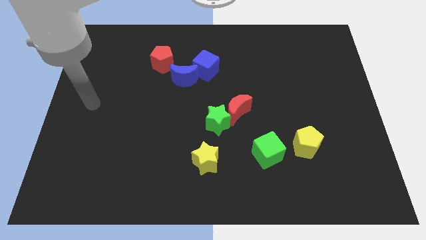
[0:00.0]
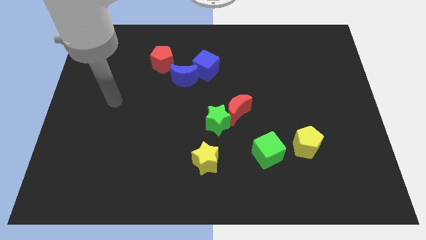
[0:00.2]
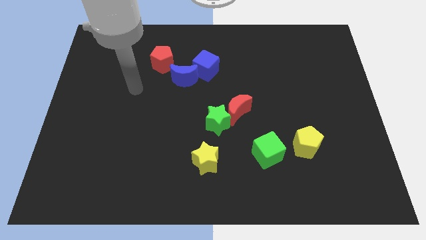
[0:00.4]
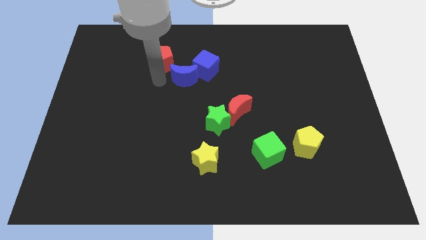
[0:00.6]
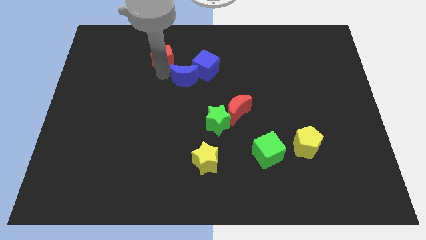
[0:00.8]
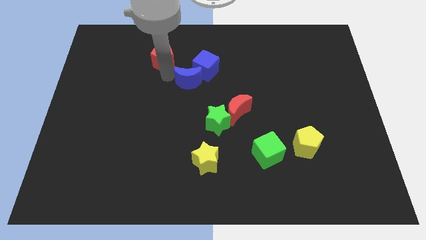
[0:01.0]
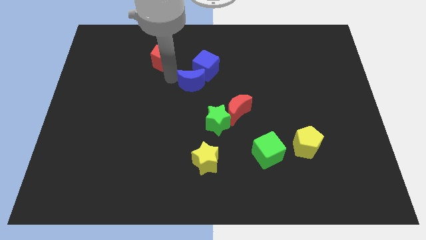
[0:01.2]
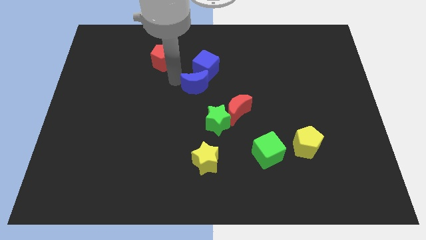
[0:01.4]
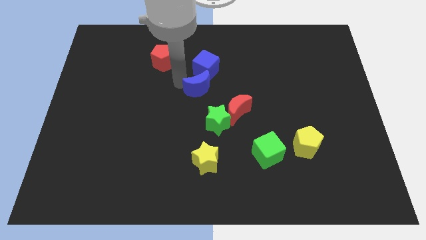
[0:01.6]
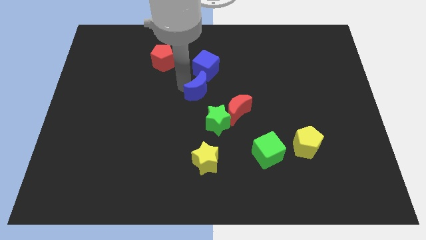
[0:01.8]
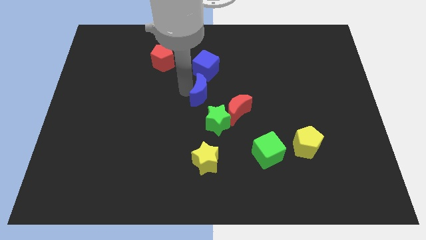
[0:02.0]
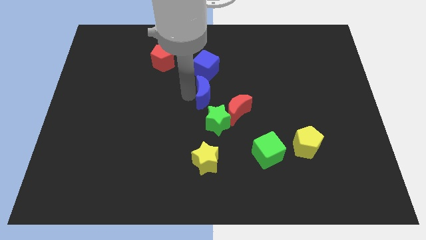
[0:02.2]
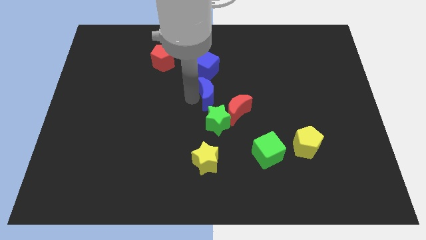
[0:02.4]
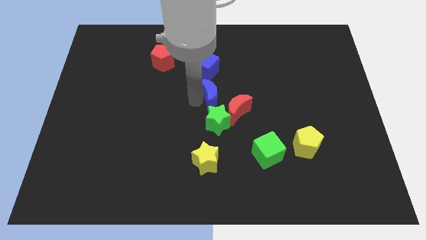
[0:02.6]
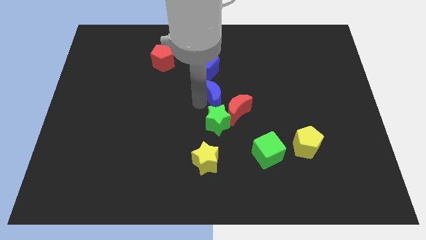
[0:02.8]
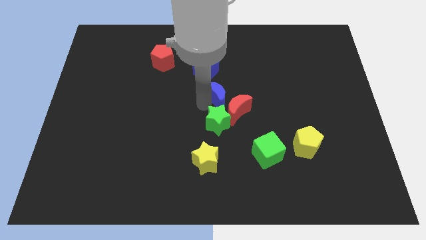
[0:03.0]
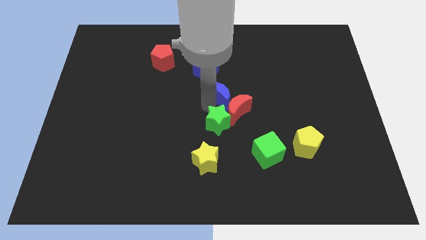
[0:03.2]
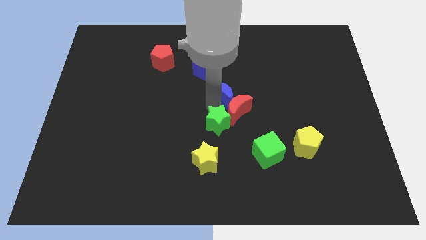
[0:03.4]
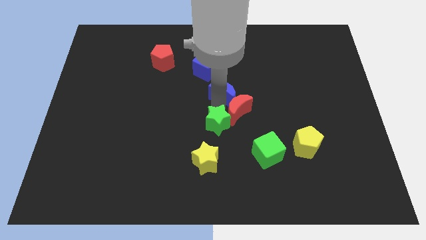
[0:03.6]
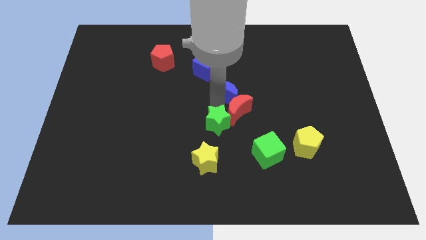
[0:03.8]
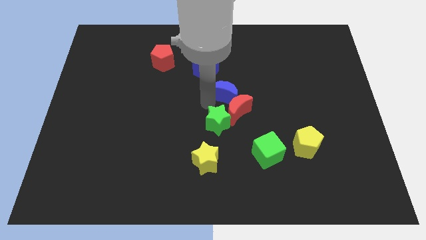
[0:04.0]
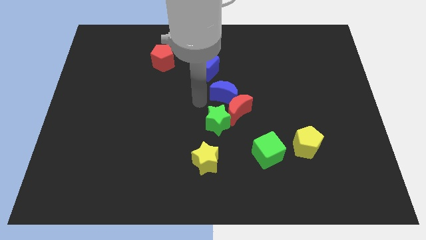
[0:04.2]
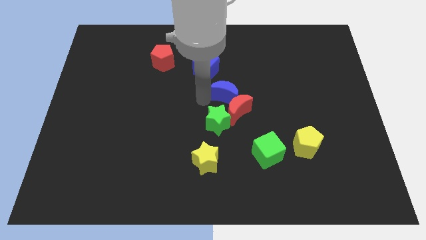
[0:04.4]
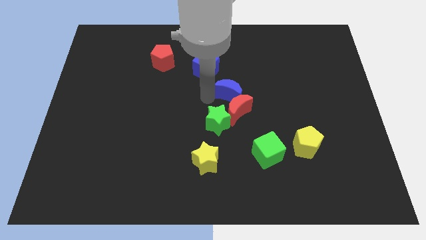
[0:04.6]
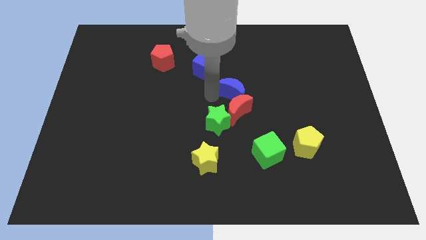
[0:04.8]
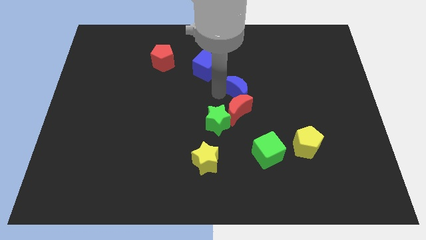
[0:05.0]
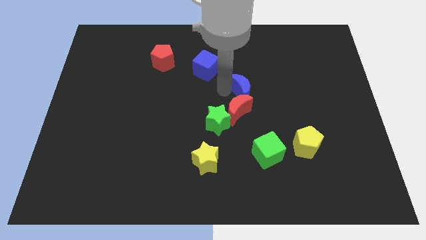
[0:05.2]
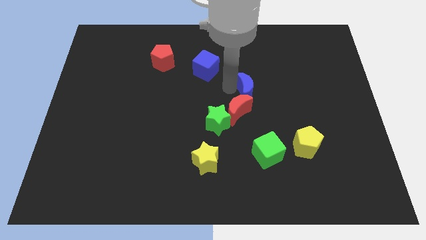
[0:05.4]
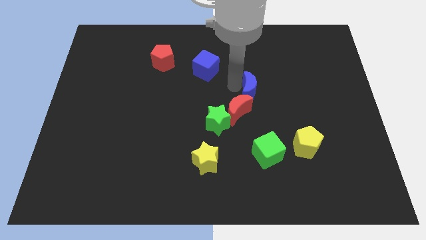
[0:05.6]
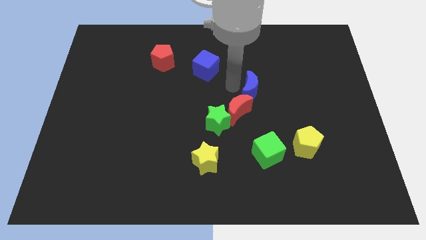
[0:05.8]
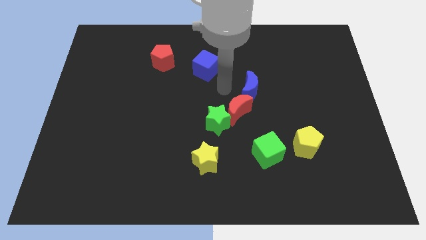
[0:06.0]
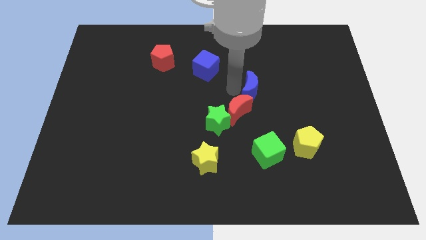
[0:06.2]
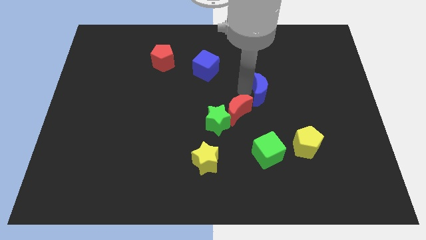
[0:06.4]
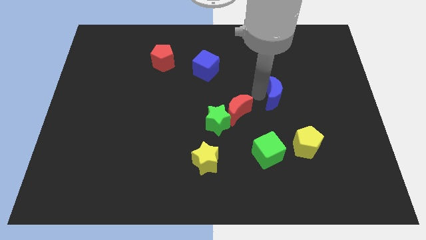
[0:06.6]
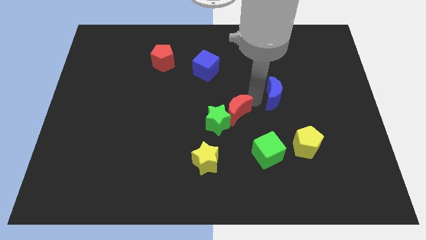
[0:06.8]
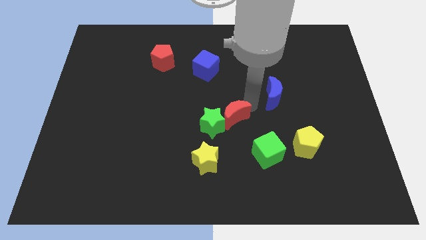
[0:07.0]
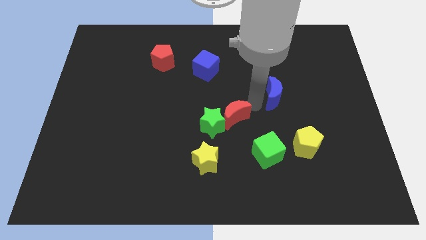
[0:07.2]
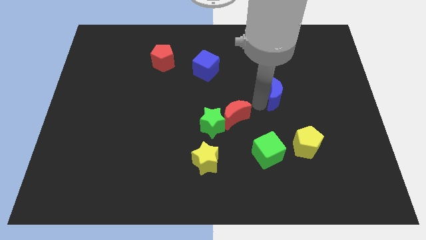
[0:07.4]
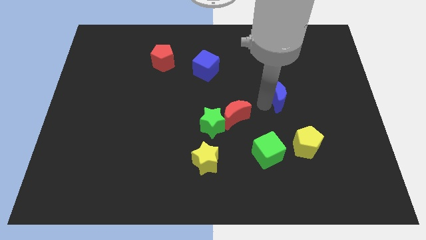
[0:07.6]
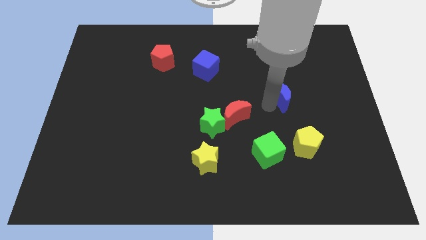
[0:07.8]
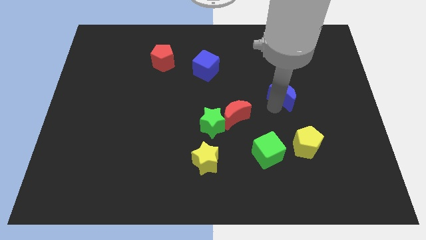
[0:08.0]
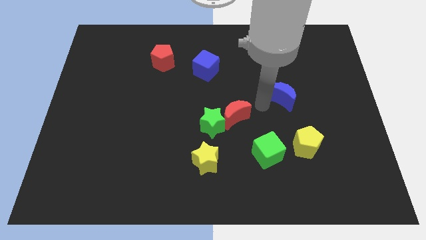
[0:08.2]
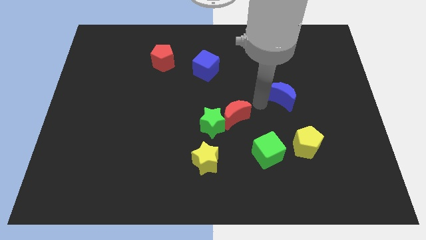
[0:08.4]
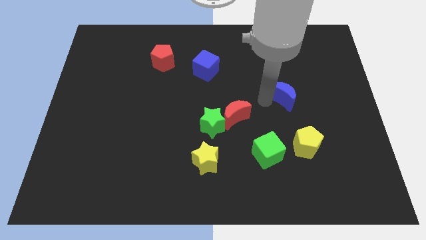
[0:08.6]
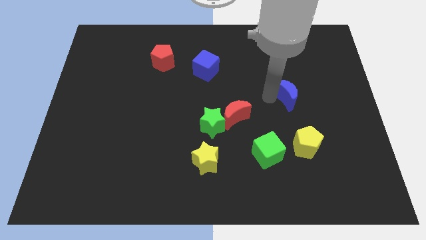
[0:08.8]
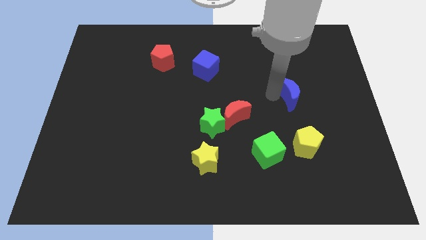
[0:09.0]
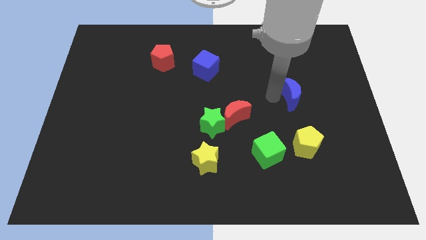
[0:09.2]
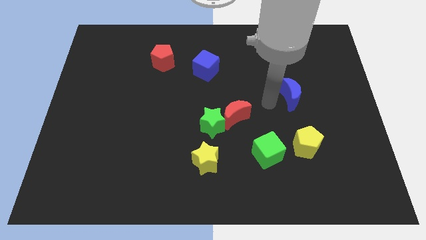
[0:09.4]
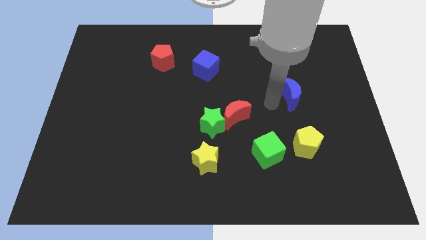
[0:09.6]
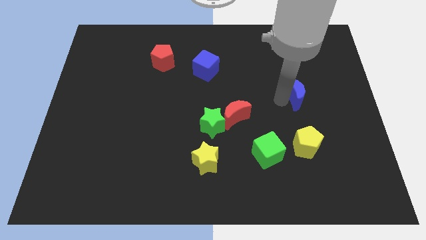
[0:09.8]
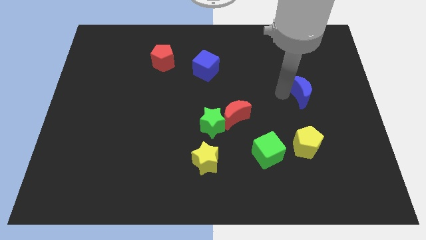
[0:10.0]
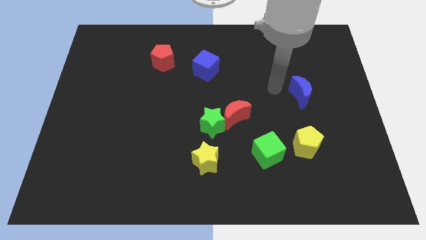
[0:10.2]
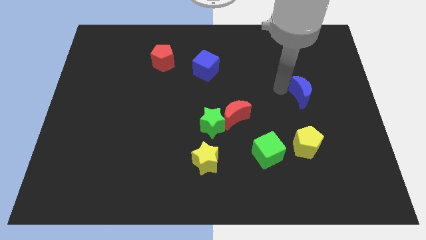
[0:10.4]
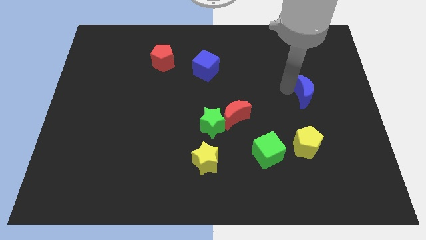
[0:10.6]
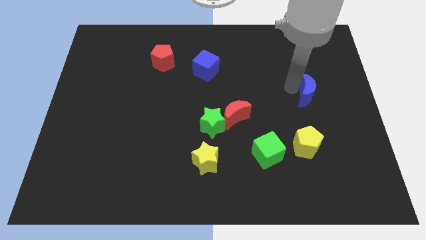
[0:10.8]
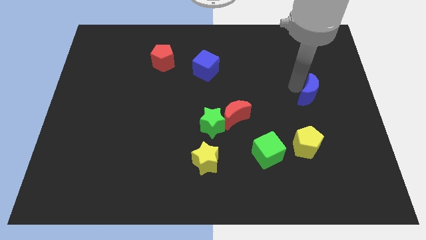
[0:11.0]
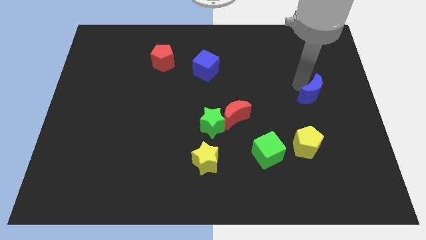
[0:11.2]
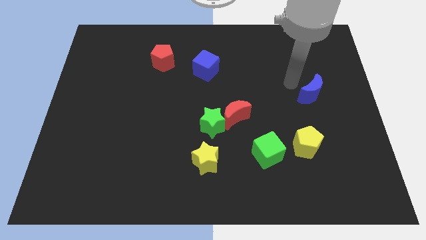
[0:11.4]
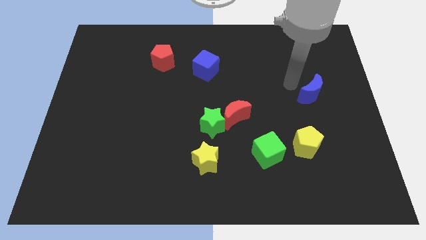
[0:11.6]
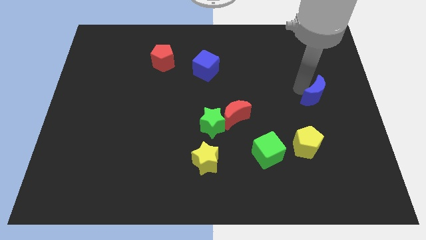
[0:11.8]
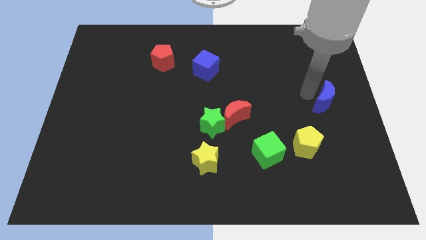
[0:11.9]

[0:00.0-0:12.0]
move the blue moon to the center right
